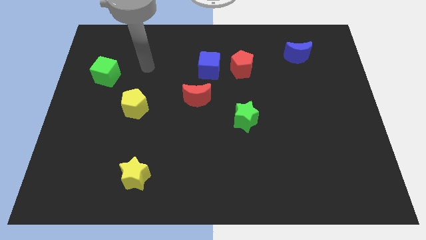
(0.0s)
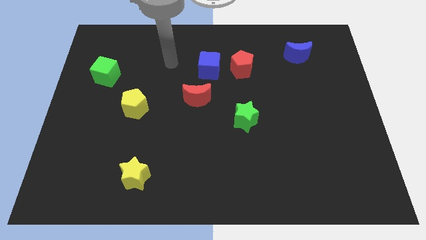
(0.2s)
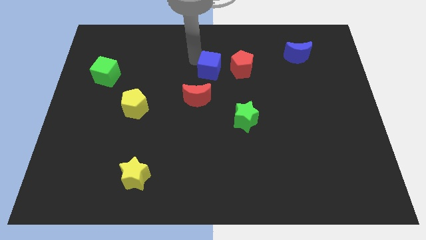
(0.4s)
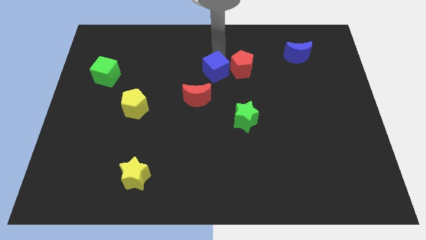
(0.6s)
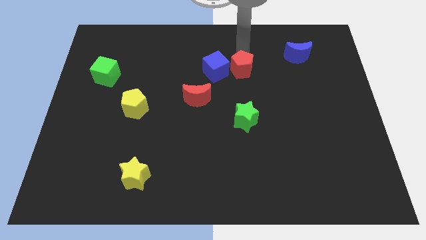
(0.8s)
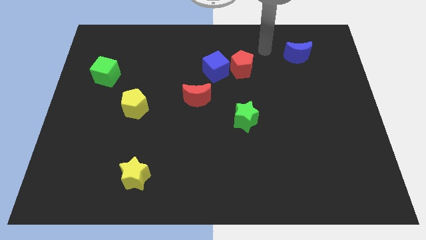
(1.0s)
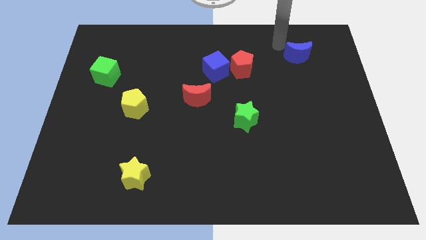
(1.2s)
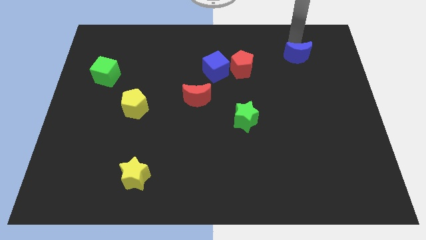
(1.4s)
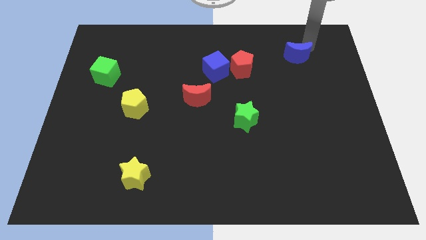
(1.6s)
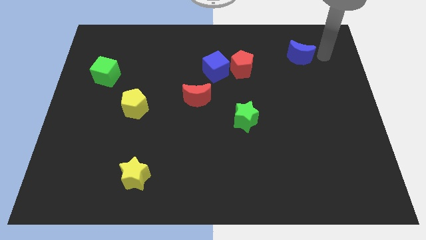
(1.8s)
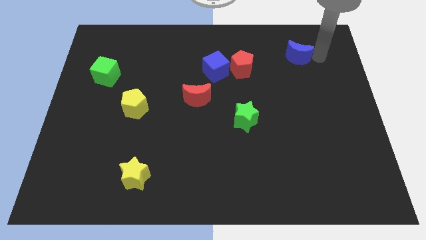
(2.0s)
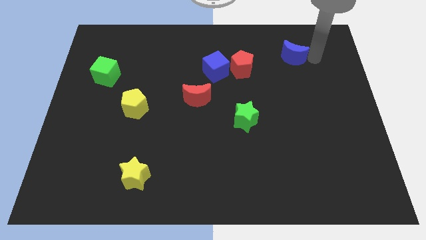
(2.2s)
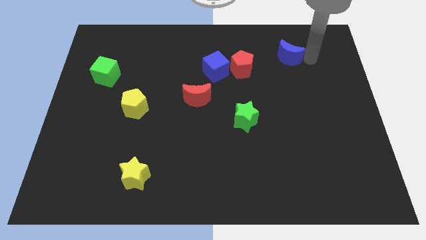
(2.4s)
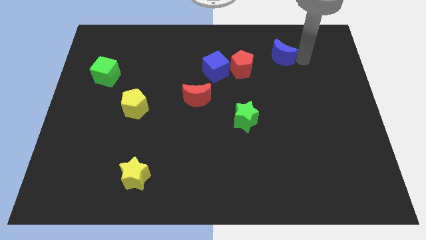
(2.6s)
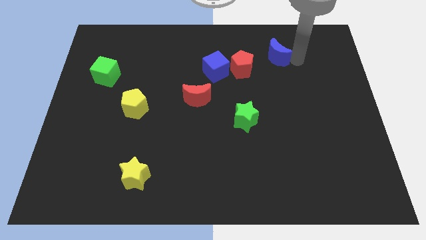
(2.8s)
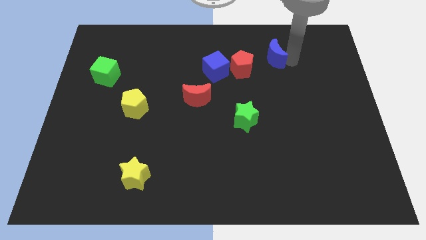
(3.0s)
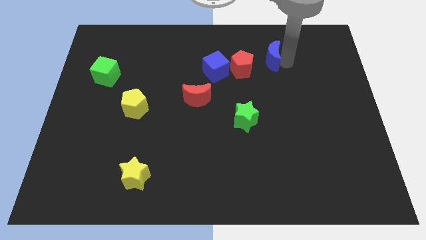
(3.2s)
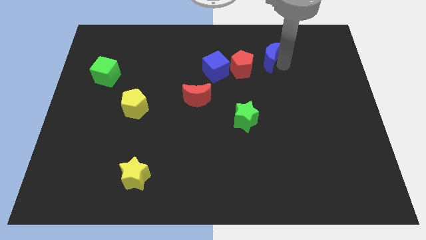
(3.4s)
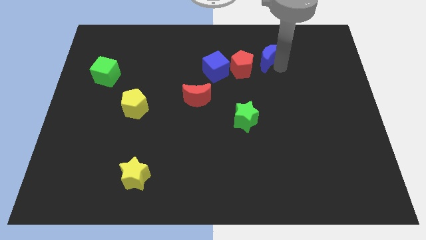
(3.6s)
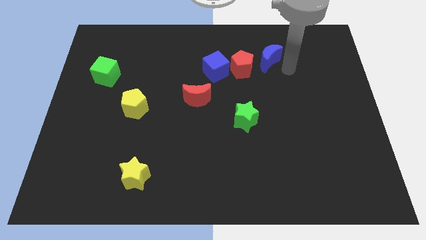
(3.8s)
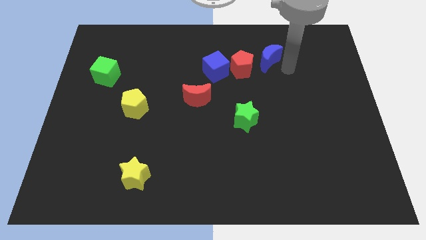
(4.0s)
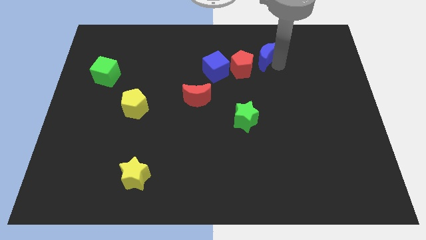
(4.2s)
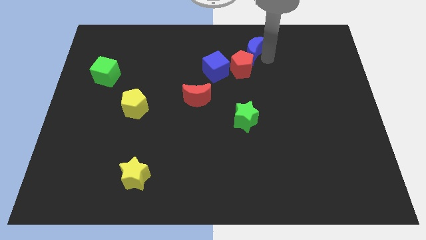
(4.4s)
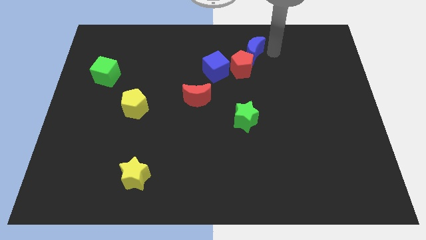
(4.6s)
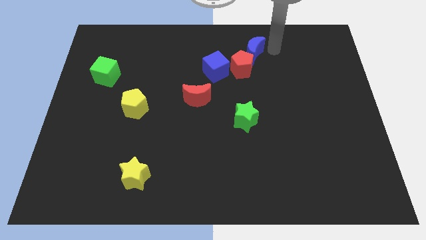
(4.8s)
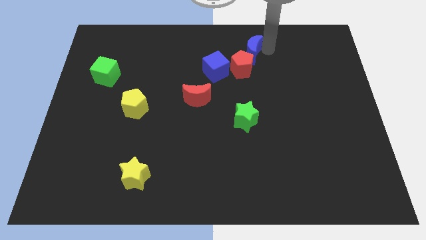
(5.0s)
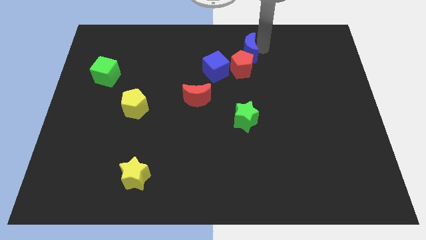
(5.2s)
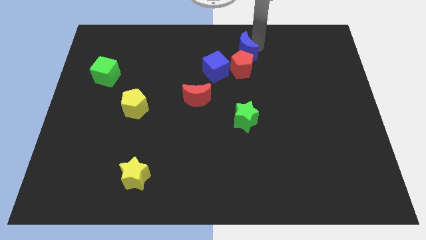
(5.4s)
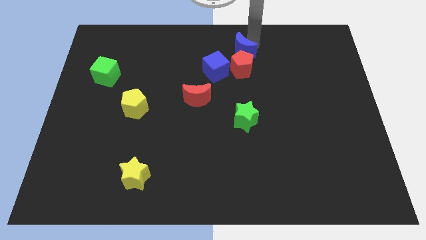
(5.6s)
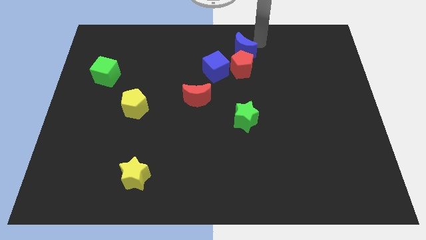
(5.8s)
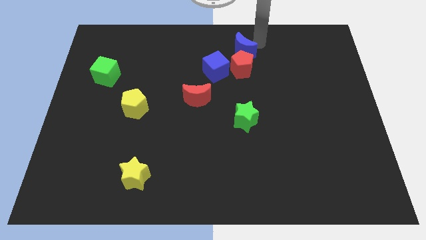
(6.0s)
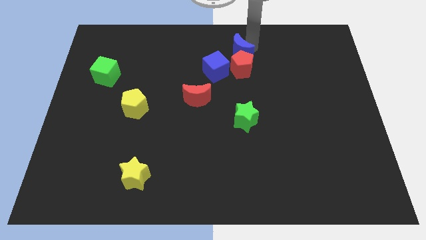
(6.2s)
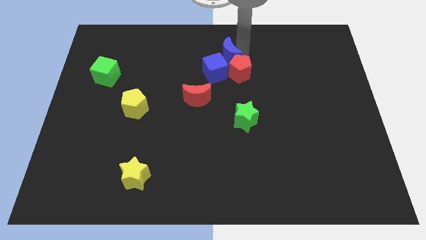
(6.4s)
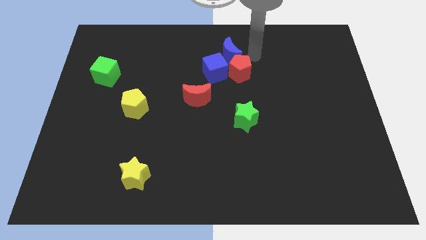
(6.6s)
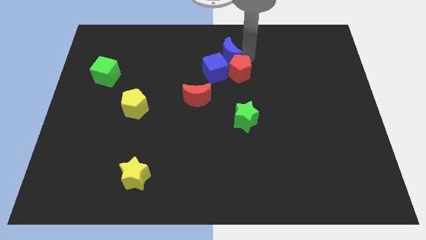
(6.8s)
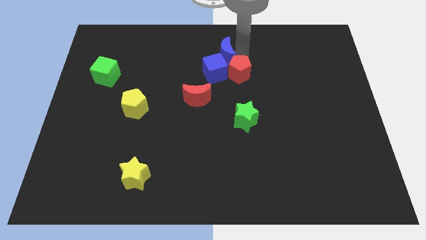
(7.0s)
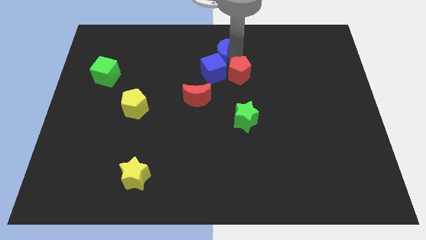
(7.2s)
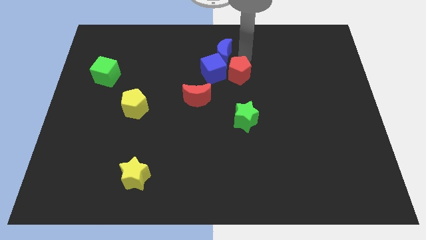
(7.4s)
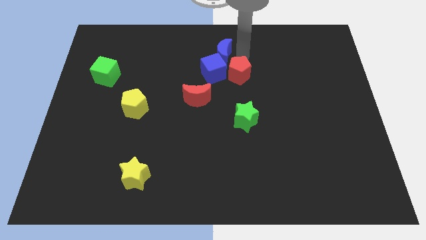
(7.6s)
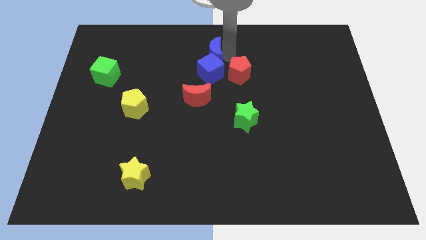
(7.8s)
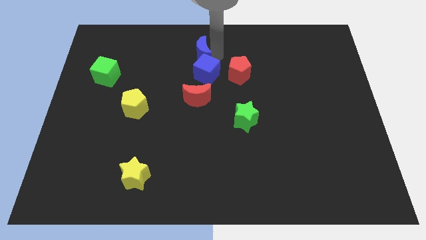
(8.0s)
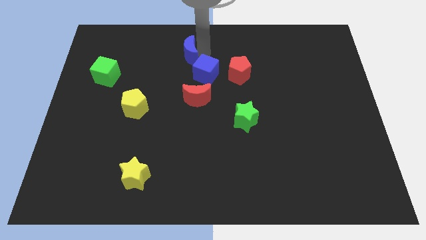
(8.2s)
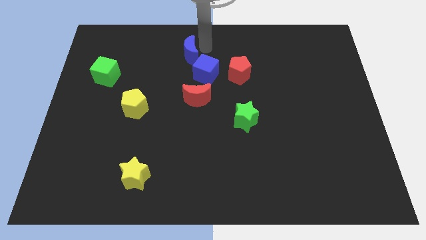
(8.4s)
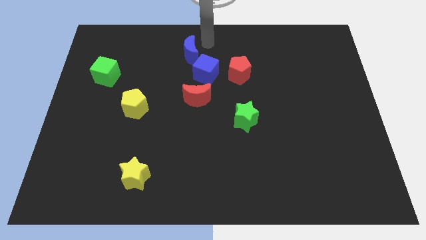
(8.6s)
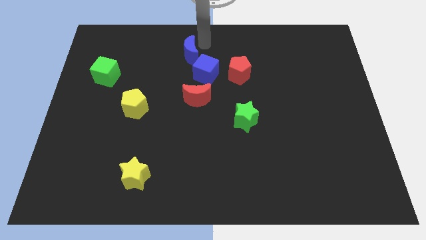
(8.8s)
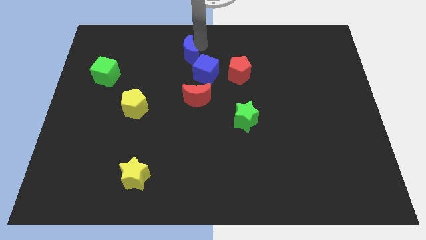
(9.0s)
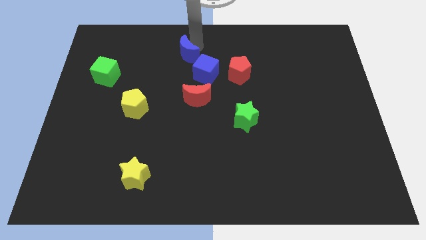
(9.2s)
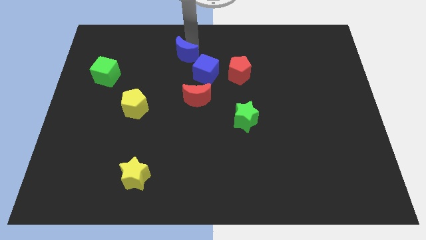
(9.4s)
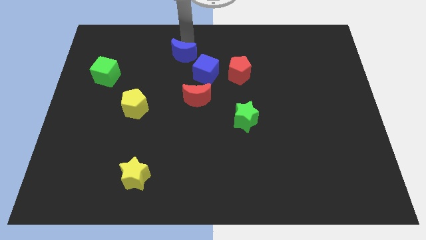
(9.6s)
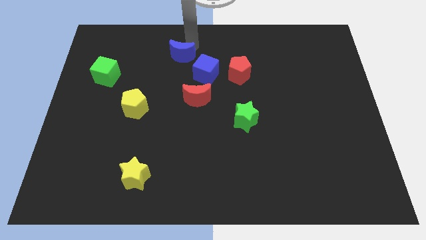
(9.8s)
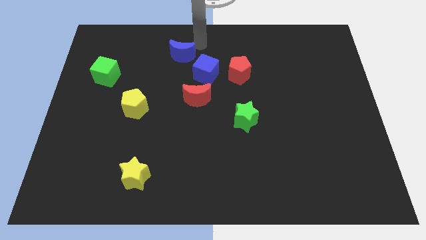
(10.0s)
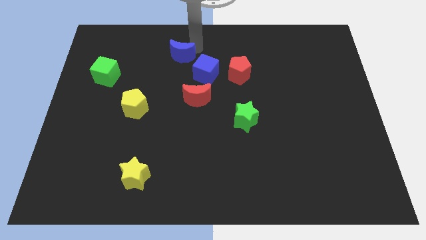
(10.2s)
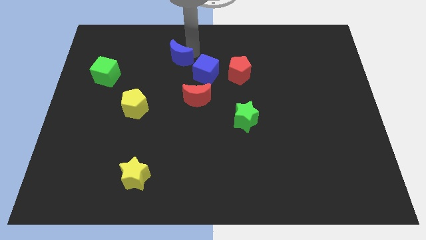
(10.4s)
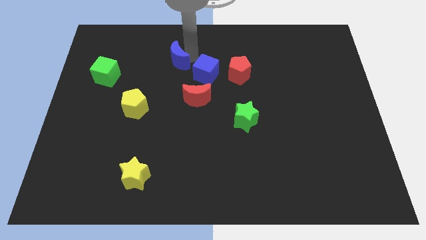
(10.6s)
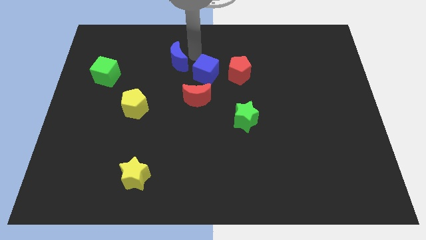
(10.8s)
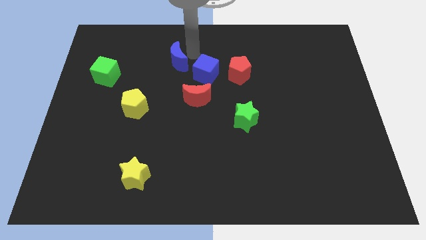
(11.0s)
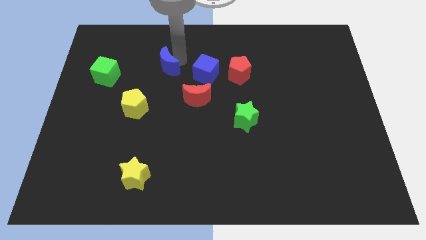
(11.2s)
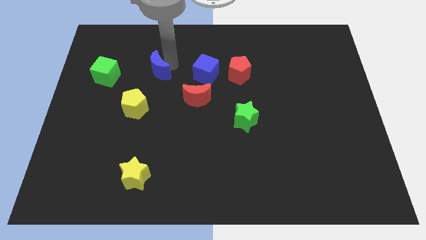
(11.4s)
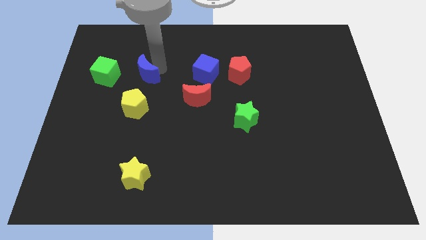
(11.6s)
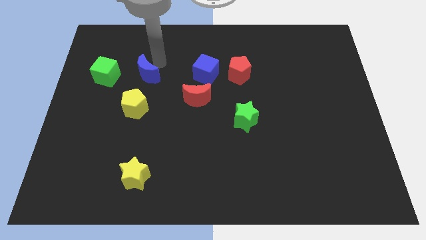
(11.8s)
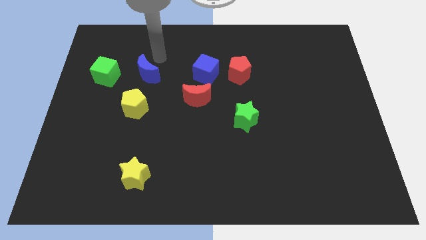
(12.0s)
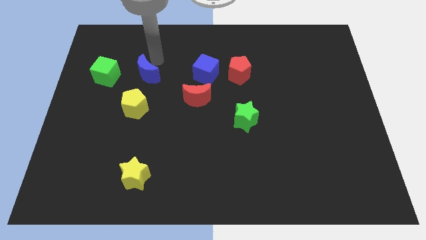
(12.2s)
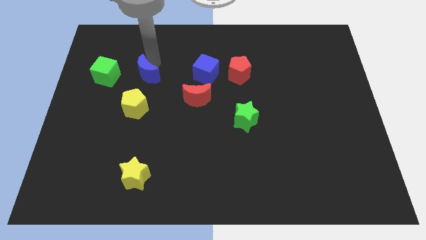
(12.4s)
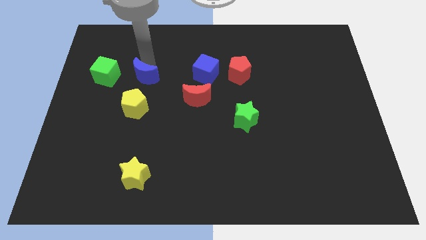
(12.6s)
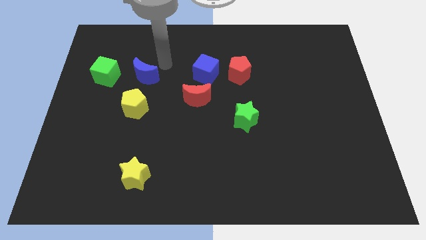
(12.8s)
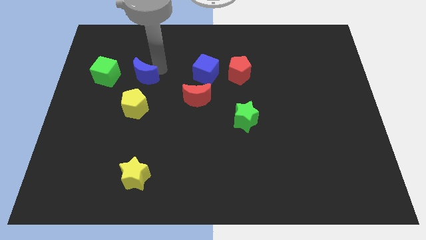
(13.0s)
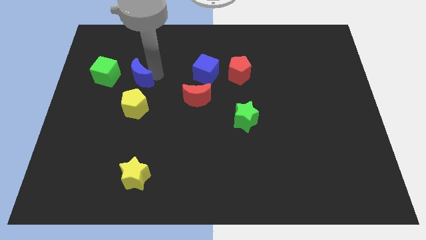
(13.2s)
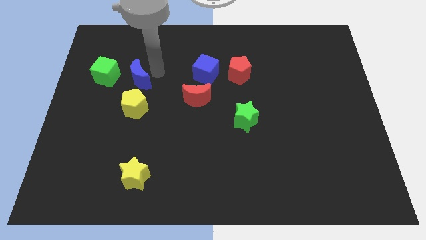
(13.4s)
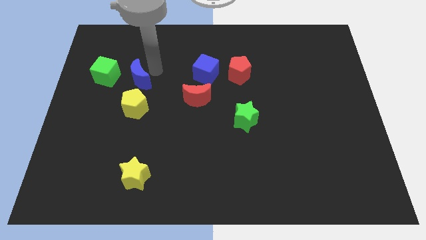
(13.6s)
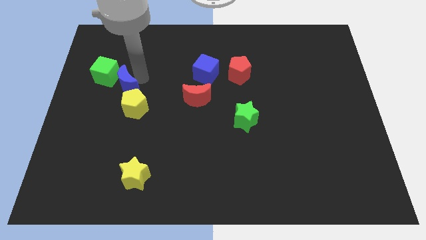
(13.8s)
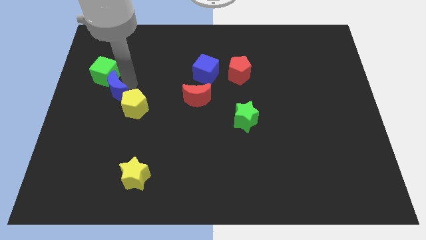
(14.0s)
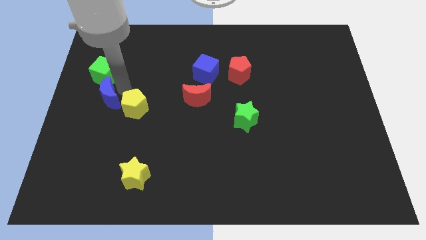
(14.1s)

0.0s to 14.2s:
slide the blue moon to the left side
